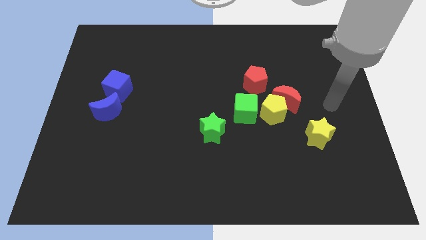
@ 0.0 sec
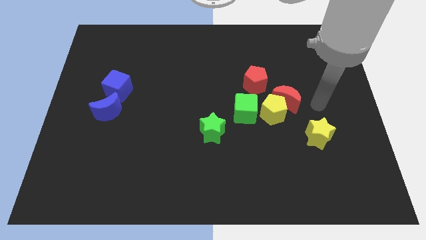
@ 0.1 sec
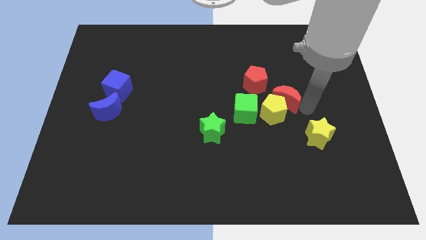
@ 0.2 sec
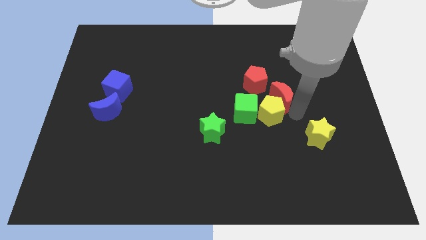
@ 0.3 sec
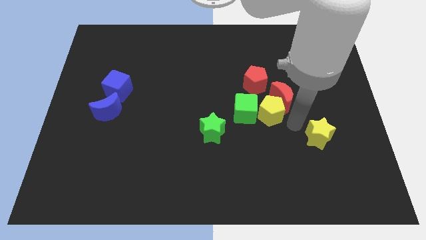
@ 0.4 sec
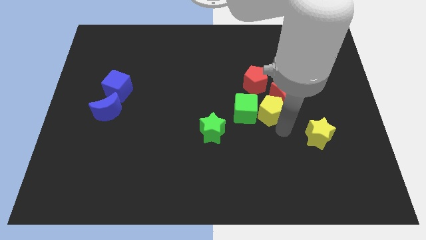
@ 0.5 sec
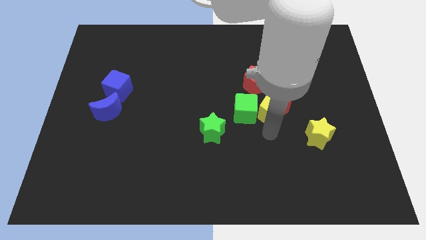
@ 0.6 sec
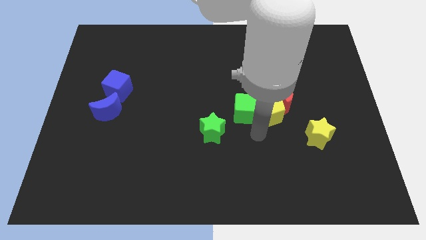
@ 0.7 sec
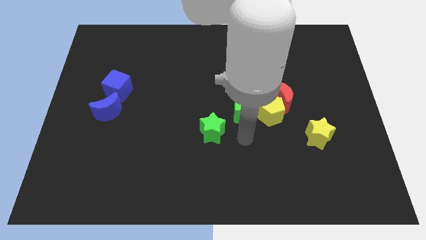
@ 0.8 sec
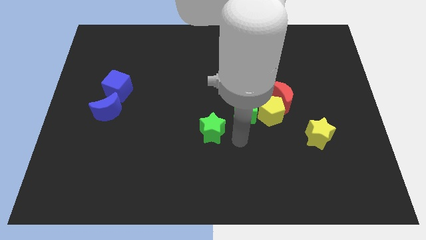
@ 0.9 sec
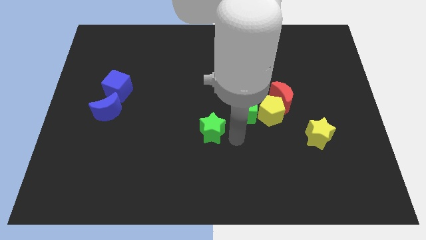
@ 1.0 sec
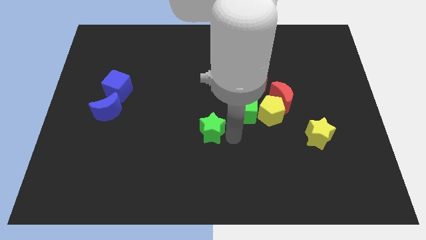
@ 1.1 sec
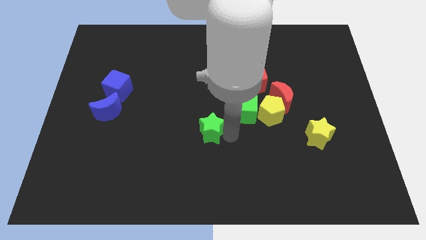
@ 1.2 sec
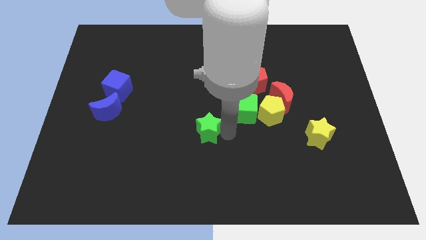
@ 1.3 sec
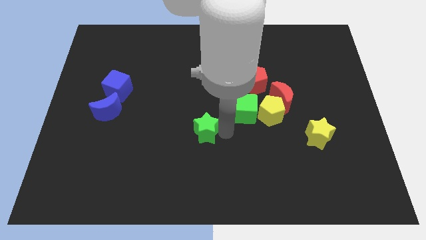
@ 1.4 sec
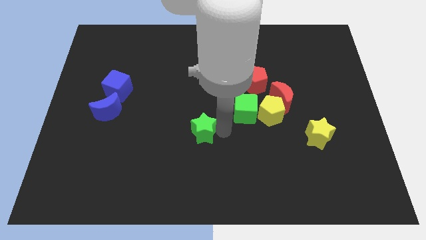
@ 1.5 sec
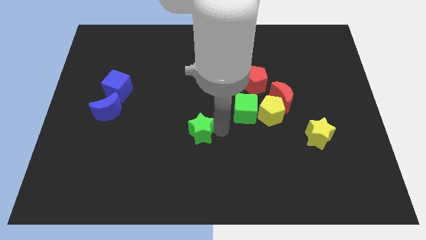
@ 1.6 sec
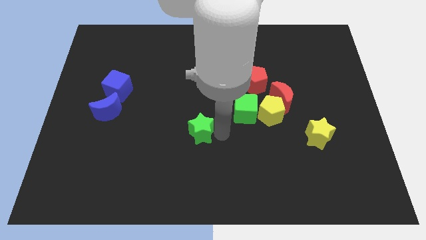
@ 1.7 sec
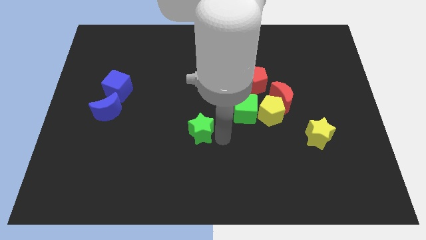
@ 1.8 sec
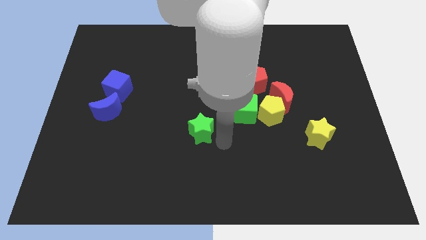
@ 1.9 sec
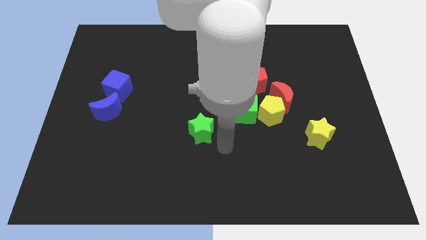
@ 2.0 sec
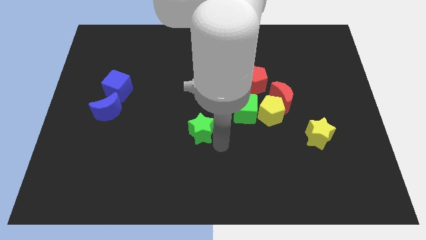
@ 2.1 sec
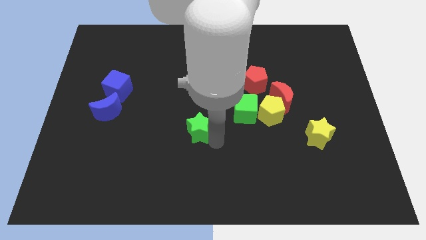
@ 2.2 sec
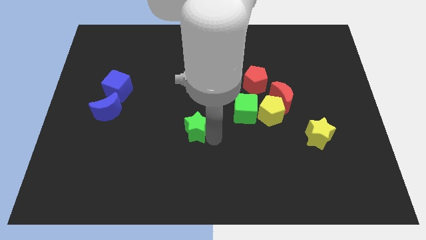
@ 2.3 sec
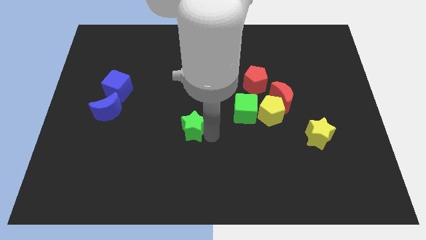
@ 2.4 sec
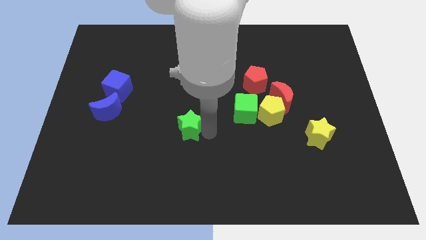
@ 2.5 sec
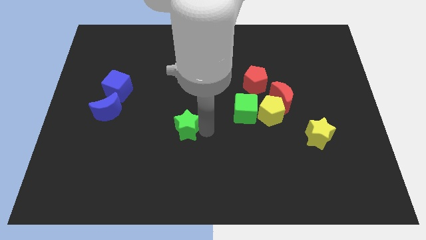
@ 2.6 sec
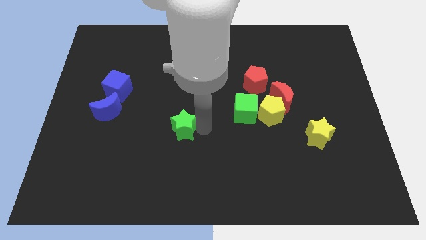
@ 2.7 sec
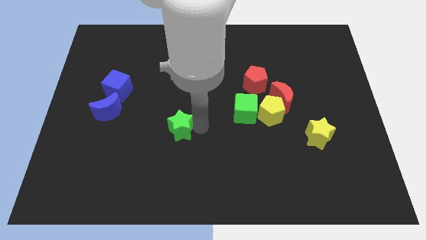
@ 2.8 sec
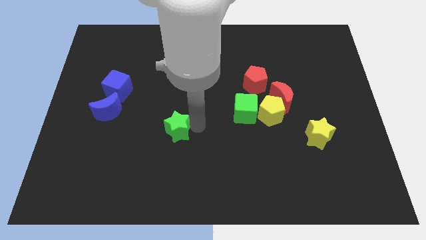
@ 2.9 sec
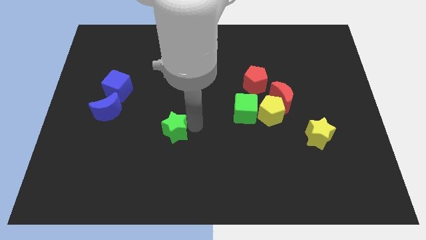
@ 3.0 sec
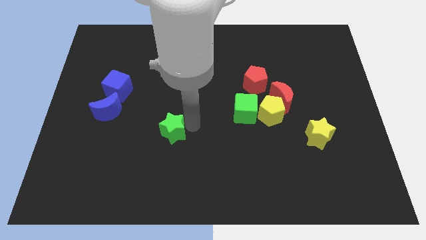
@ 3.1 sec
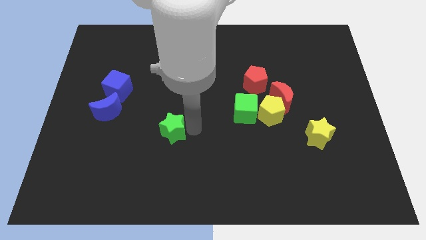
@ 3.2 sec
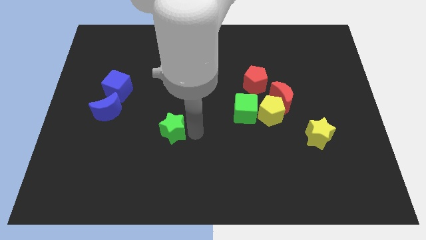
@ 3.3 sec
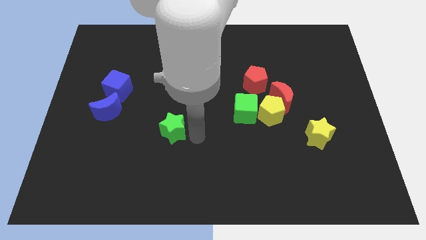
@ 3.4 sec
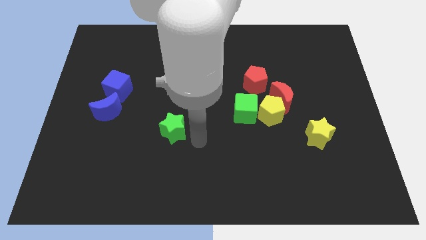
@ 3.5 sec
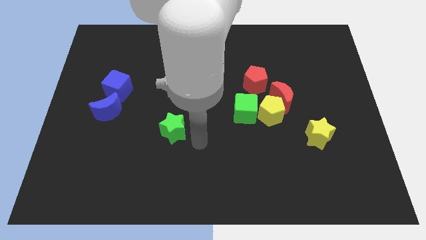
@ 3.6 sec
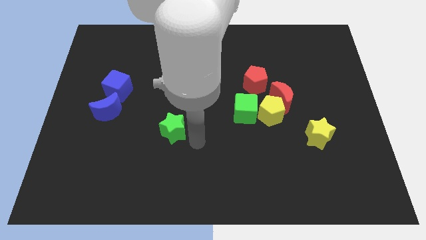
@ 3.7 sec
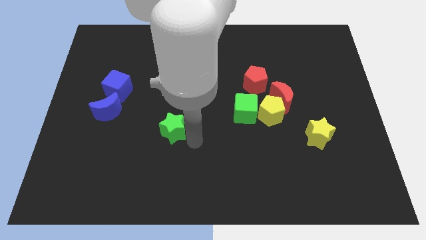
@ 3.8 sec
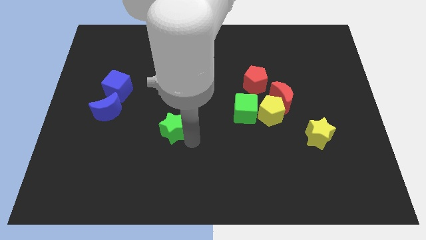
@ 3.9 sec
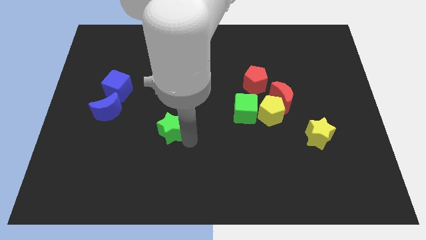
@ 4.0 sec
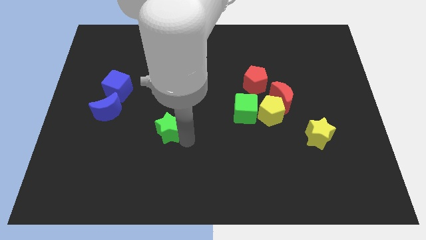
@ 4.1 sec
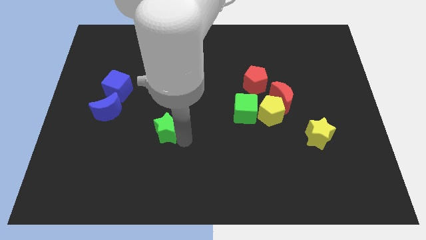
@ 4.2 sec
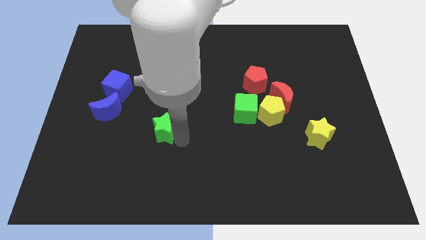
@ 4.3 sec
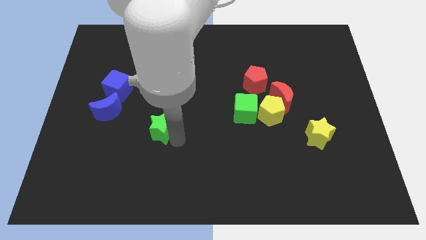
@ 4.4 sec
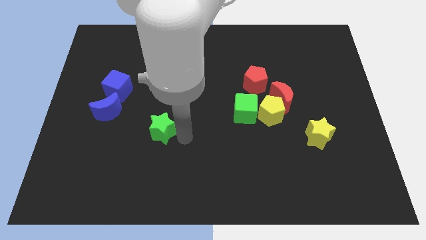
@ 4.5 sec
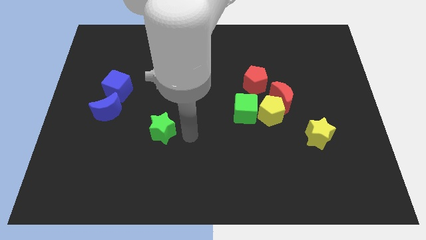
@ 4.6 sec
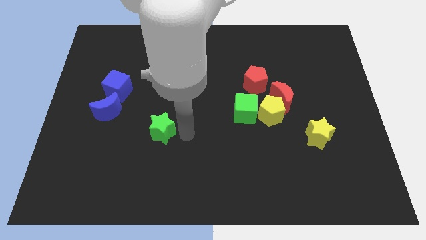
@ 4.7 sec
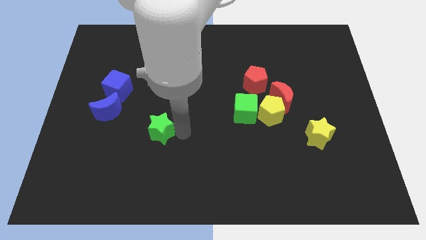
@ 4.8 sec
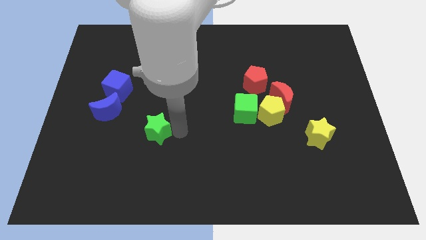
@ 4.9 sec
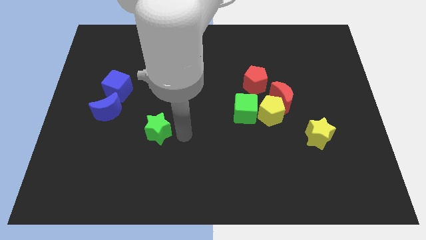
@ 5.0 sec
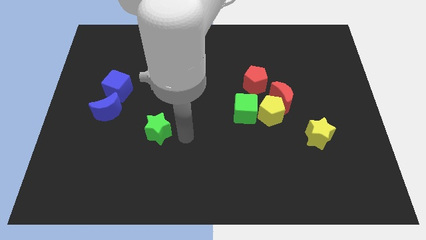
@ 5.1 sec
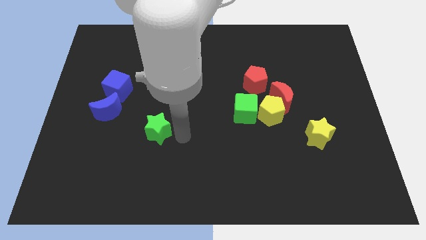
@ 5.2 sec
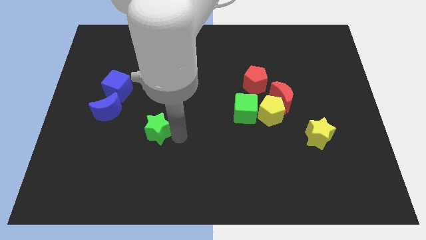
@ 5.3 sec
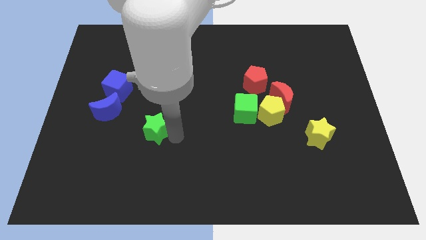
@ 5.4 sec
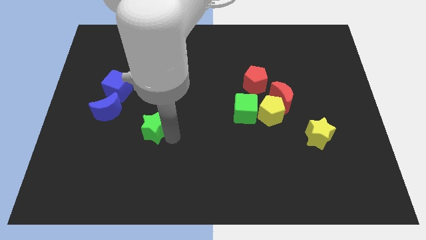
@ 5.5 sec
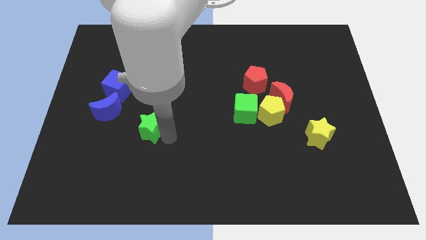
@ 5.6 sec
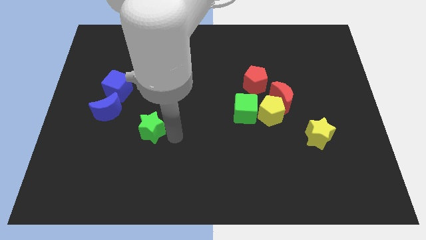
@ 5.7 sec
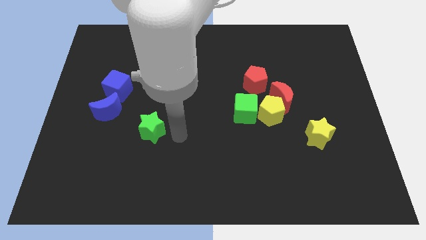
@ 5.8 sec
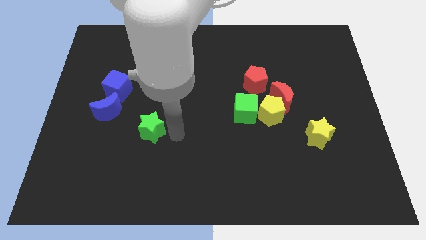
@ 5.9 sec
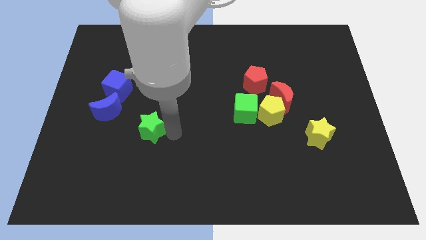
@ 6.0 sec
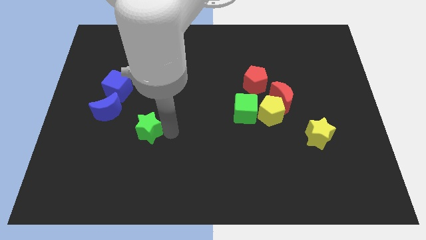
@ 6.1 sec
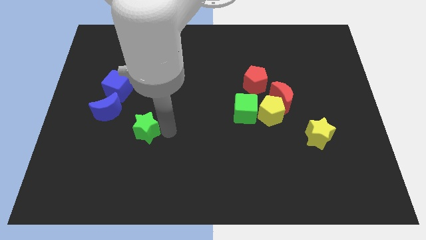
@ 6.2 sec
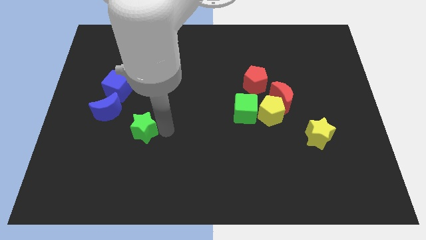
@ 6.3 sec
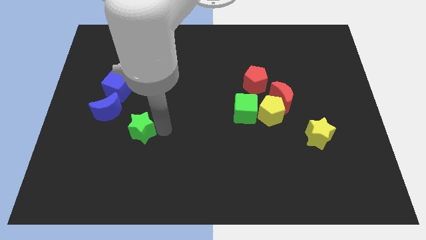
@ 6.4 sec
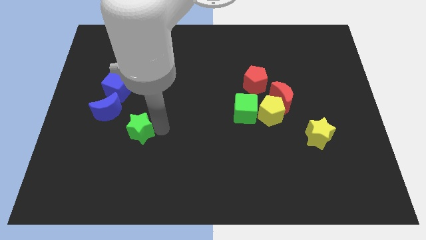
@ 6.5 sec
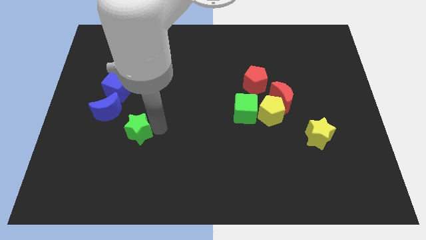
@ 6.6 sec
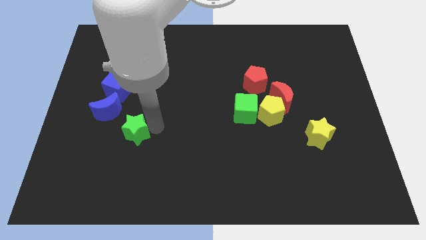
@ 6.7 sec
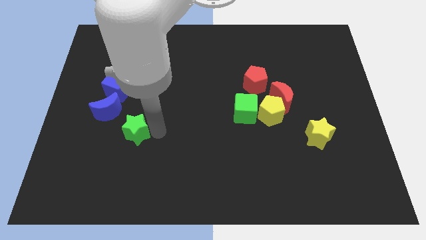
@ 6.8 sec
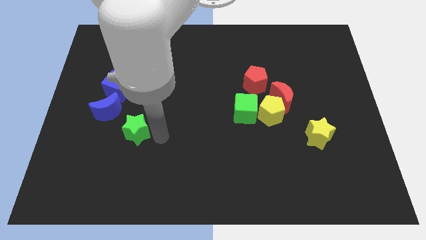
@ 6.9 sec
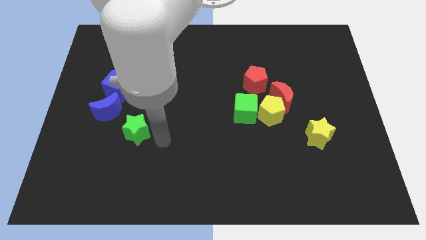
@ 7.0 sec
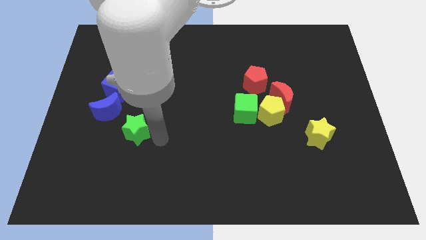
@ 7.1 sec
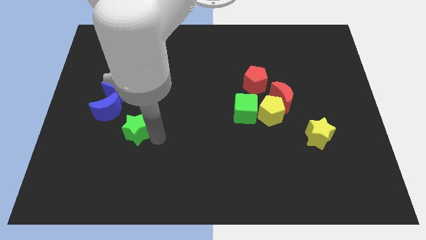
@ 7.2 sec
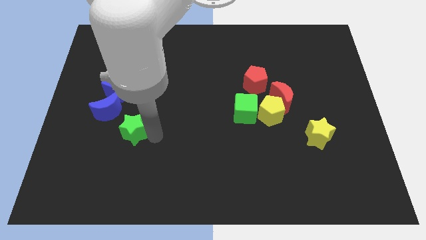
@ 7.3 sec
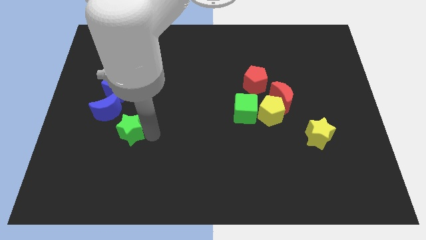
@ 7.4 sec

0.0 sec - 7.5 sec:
push the green star to the bottom of the blue cube
